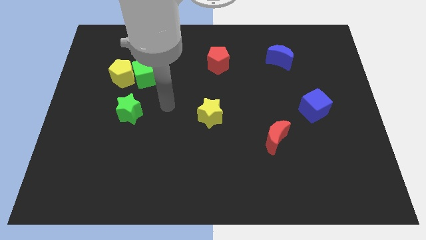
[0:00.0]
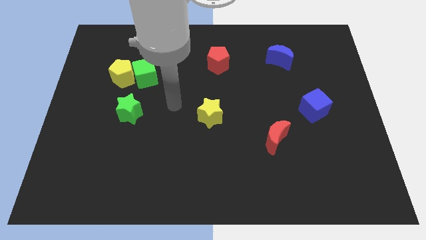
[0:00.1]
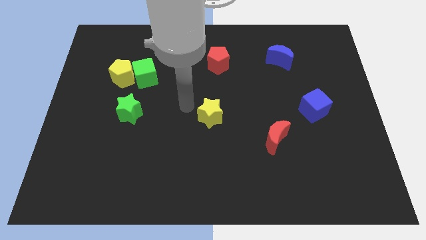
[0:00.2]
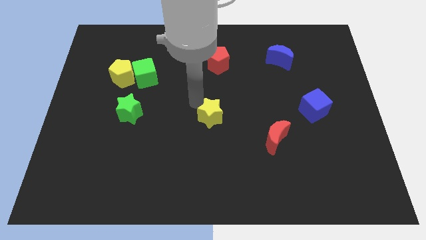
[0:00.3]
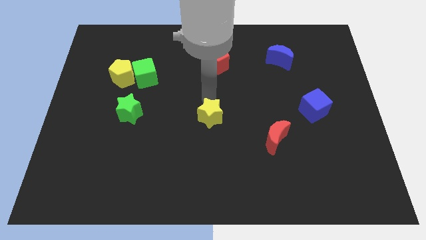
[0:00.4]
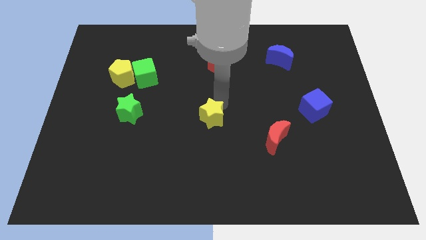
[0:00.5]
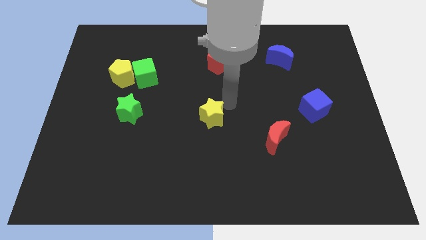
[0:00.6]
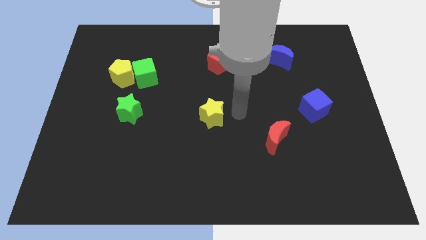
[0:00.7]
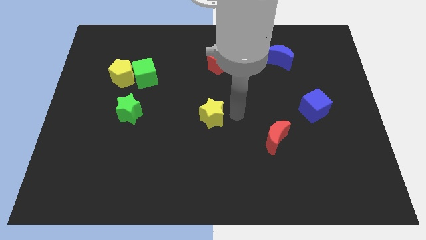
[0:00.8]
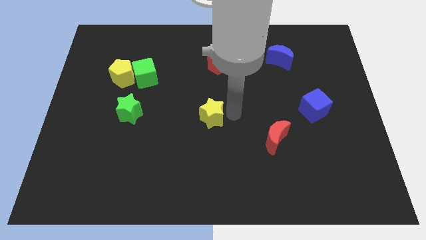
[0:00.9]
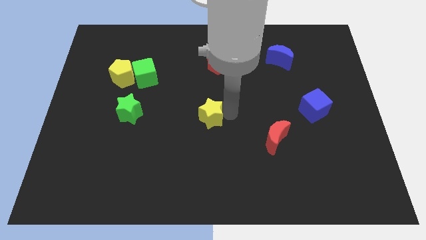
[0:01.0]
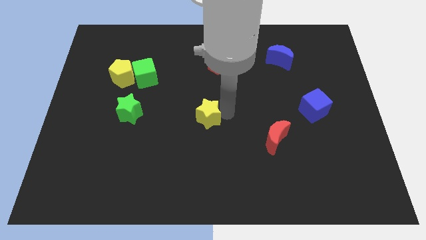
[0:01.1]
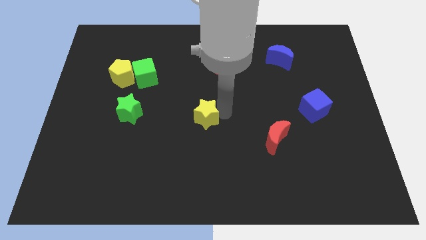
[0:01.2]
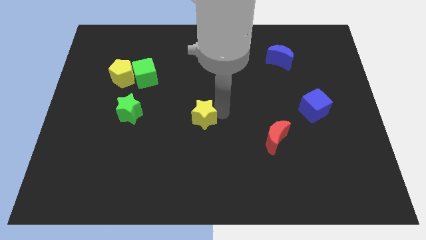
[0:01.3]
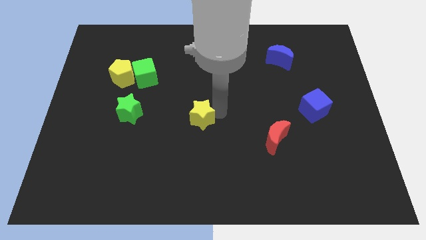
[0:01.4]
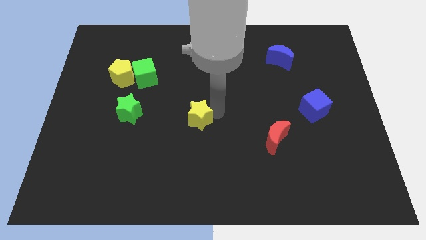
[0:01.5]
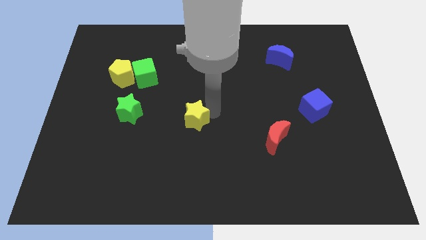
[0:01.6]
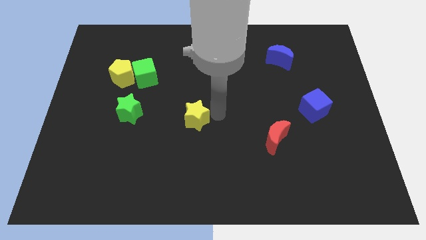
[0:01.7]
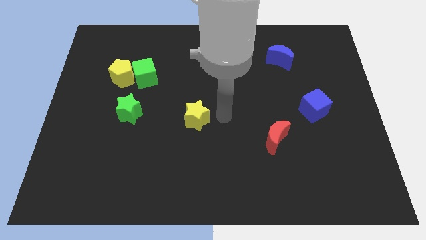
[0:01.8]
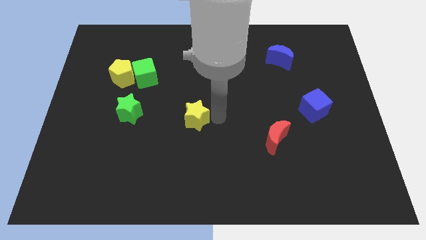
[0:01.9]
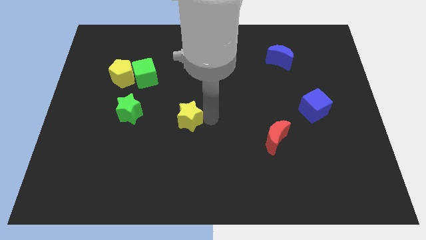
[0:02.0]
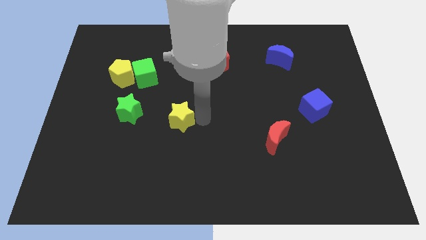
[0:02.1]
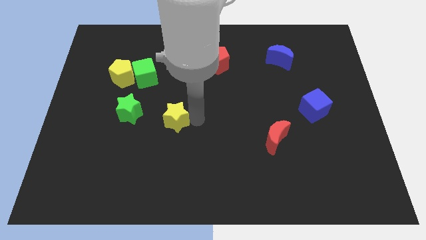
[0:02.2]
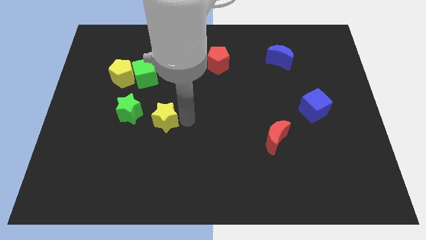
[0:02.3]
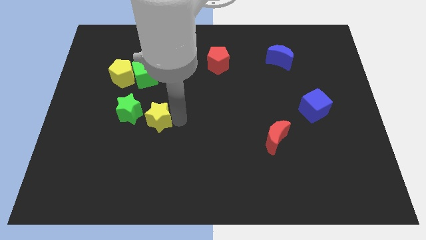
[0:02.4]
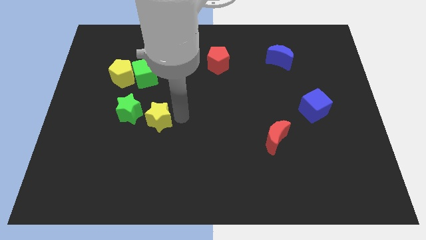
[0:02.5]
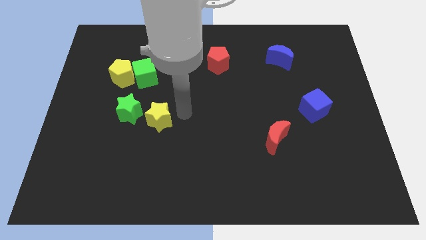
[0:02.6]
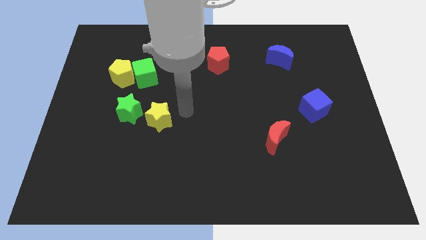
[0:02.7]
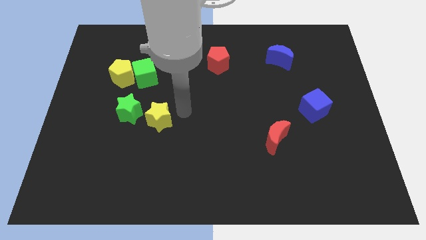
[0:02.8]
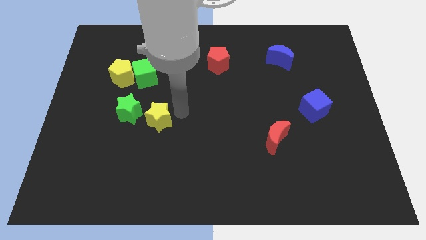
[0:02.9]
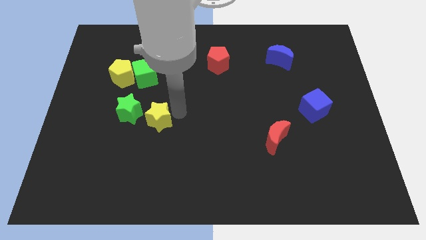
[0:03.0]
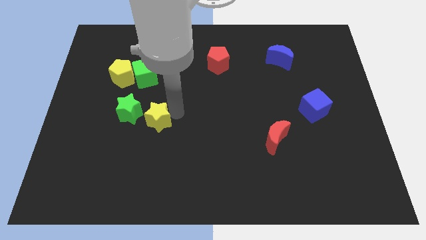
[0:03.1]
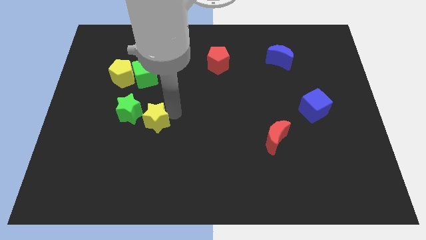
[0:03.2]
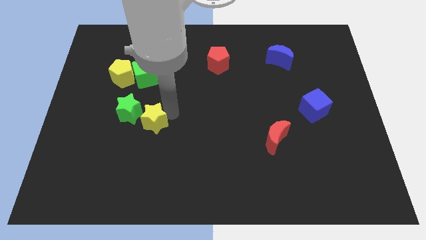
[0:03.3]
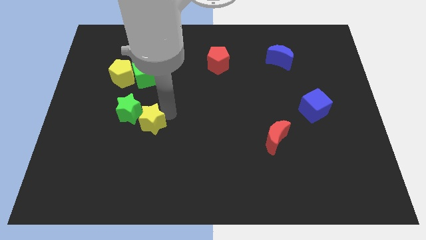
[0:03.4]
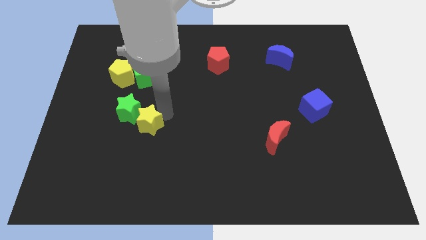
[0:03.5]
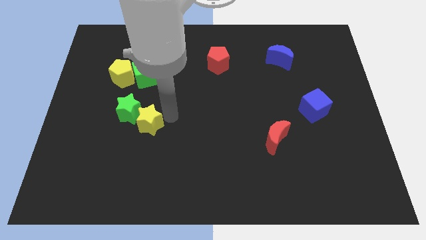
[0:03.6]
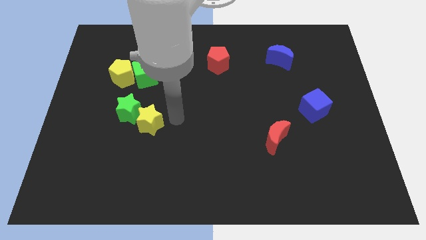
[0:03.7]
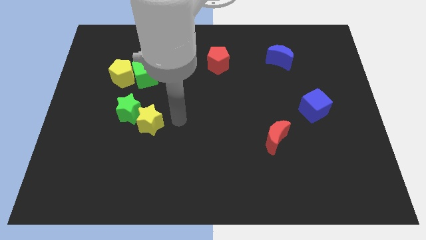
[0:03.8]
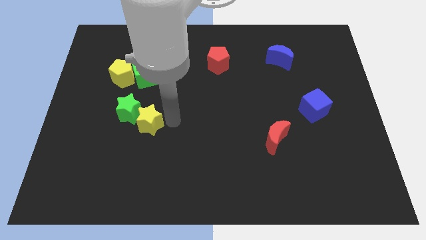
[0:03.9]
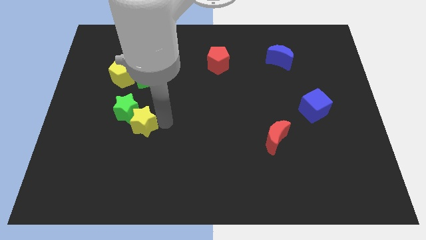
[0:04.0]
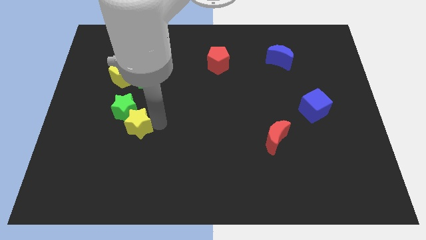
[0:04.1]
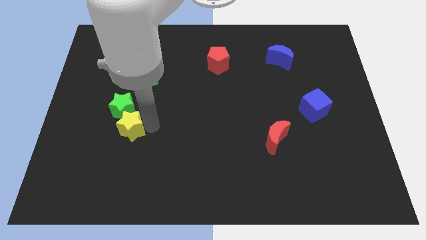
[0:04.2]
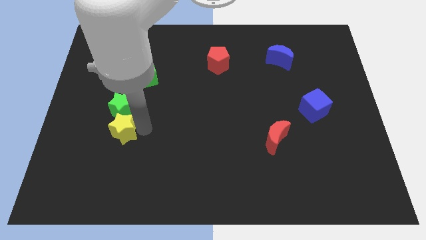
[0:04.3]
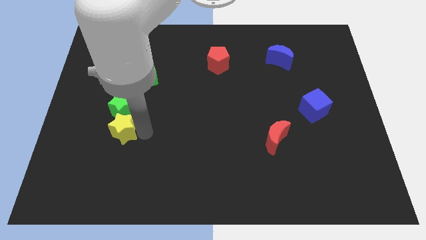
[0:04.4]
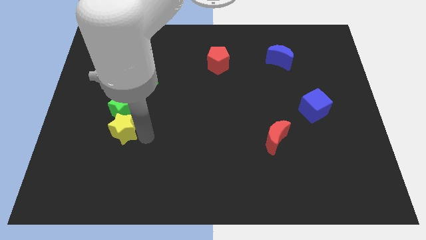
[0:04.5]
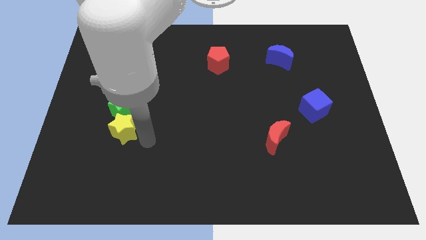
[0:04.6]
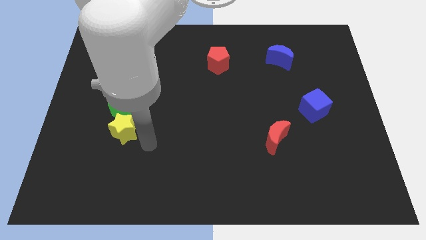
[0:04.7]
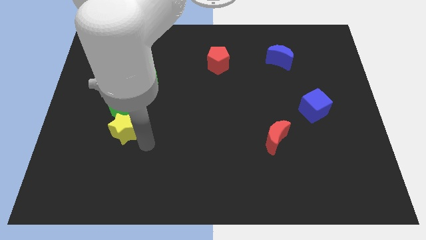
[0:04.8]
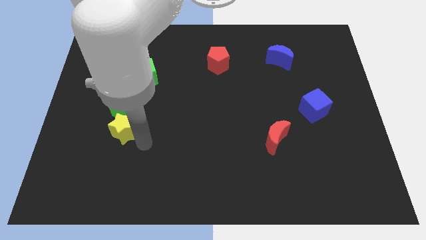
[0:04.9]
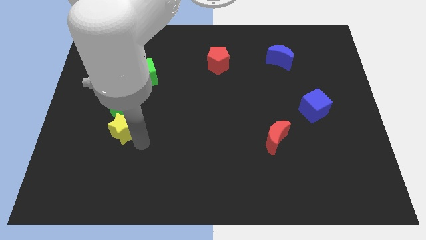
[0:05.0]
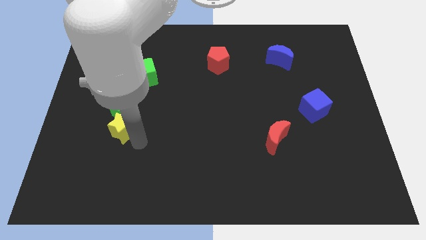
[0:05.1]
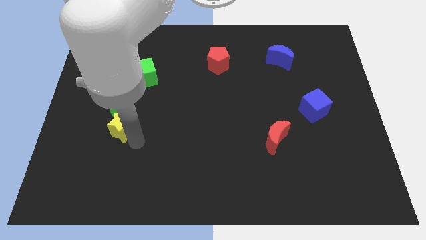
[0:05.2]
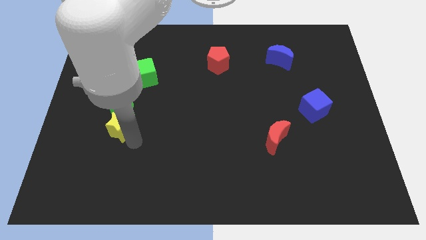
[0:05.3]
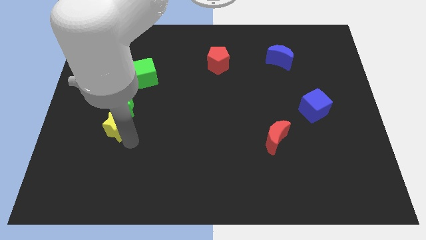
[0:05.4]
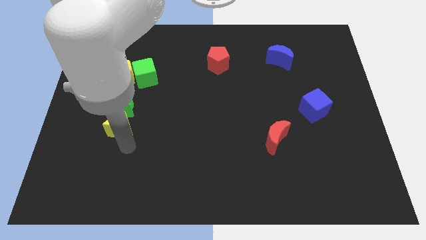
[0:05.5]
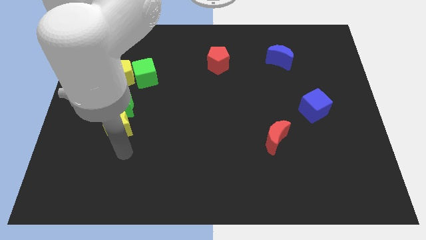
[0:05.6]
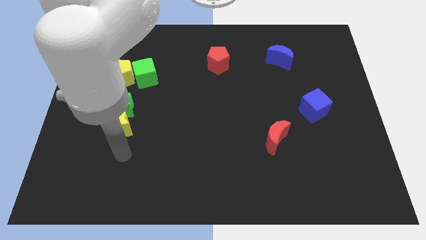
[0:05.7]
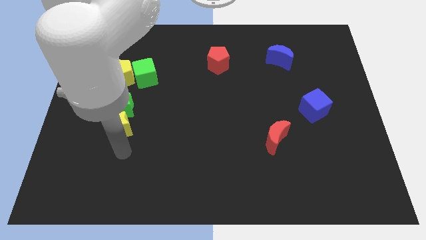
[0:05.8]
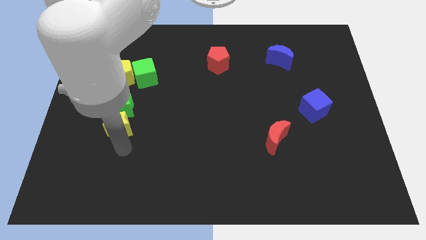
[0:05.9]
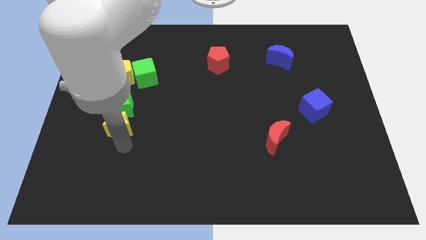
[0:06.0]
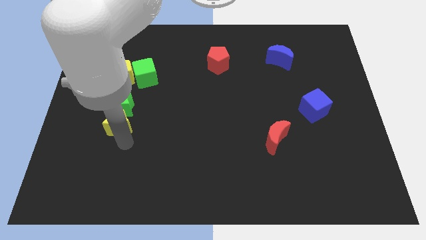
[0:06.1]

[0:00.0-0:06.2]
put the yellow star to the bottom side of the yellow pentagon

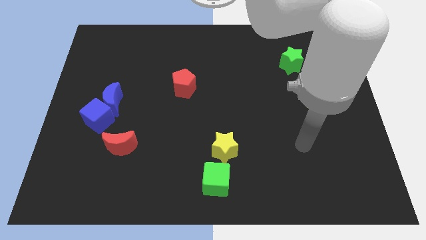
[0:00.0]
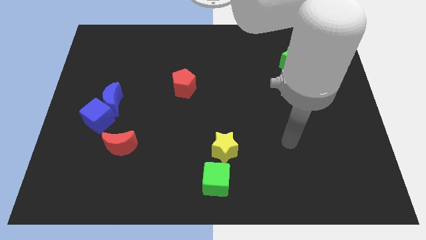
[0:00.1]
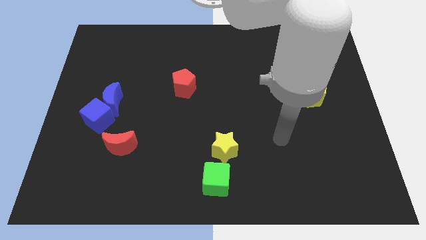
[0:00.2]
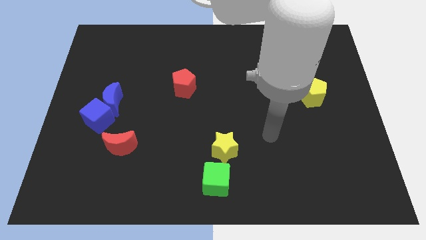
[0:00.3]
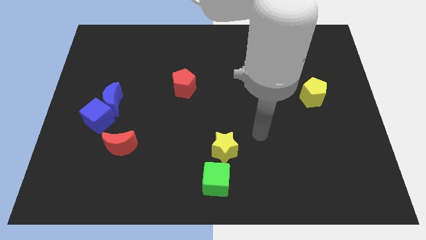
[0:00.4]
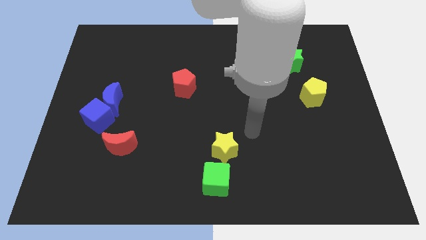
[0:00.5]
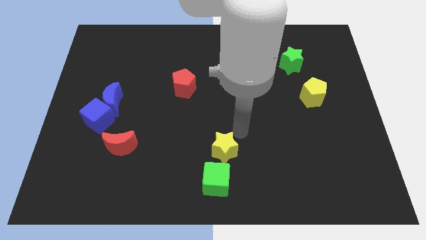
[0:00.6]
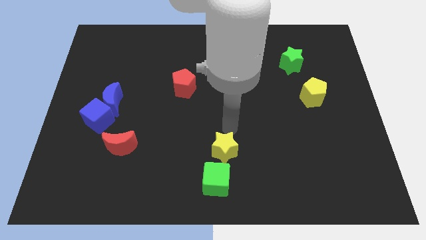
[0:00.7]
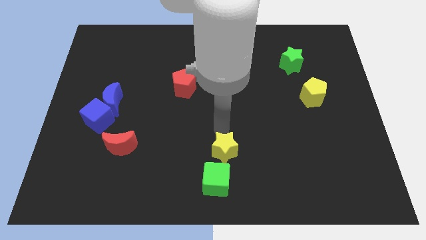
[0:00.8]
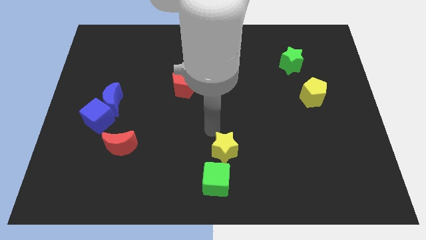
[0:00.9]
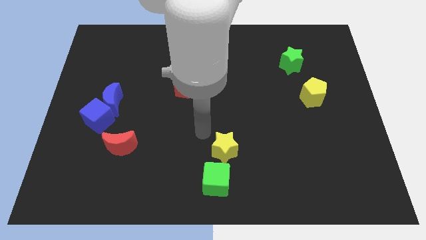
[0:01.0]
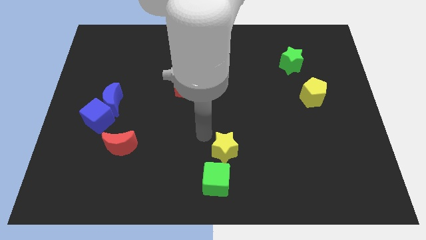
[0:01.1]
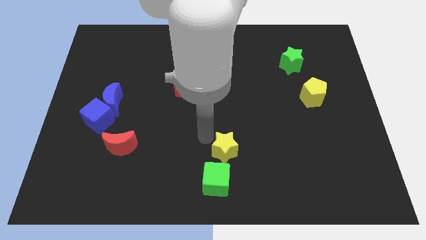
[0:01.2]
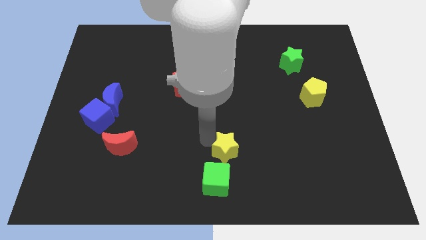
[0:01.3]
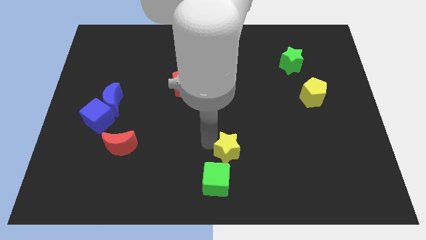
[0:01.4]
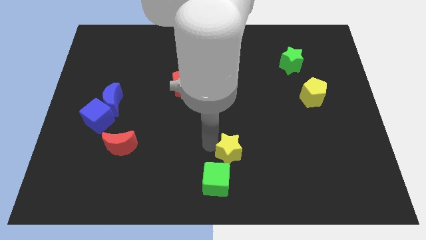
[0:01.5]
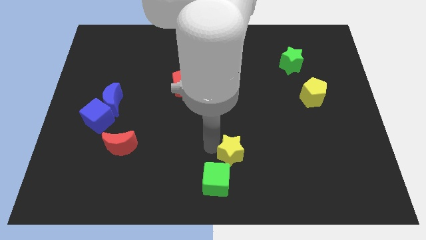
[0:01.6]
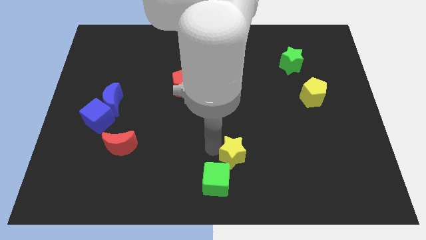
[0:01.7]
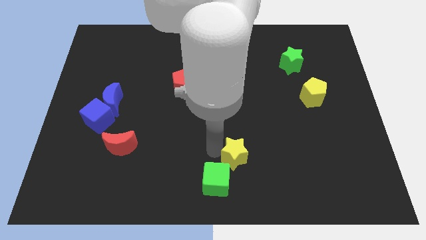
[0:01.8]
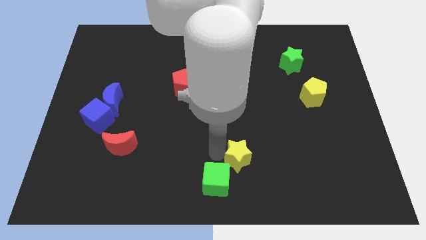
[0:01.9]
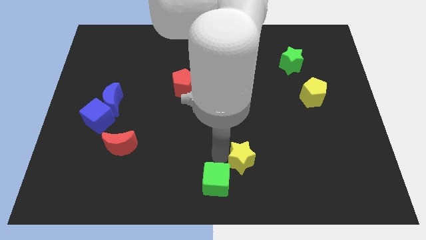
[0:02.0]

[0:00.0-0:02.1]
put the yellow star to the right side of the green cube

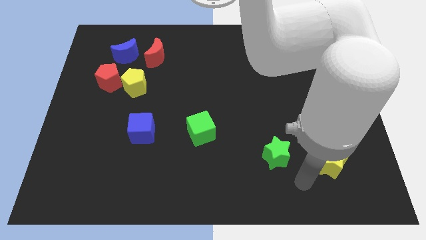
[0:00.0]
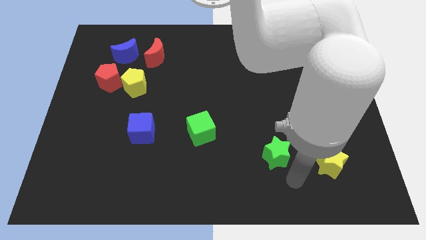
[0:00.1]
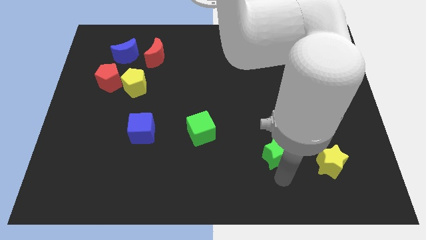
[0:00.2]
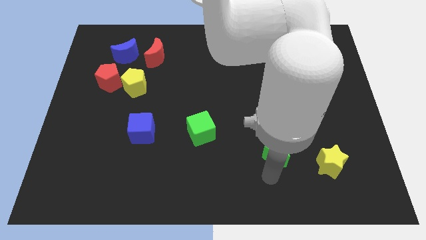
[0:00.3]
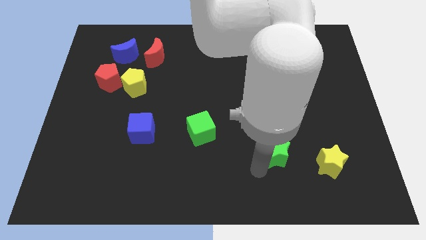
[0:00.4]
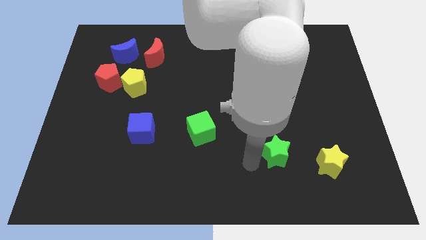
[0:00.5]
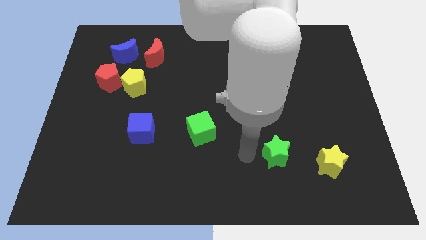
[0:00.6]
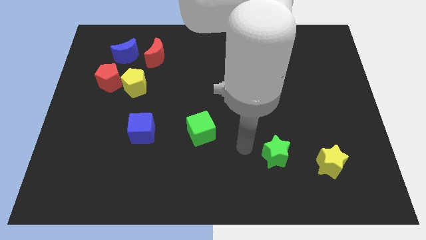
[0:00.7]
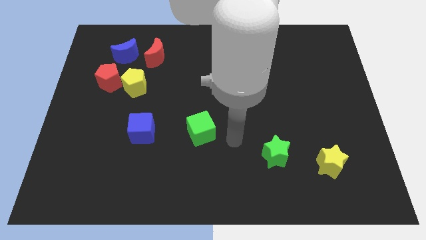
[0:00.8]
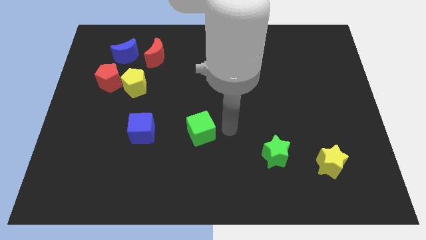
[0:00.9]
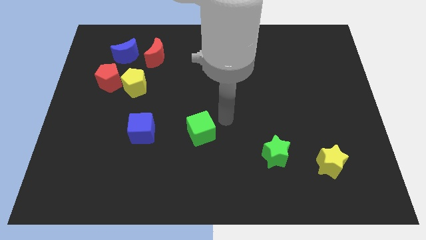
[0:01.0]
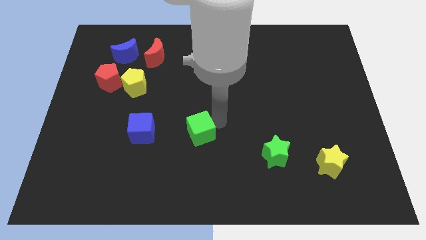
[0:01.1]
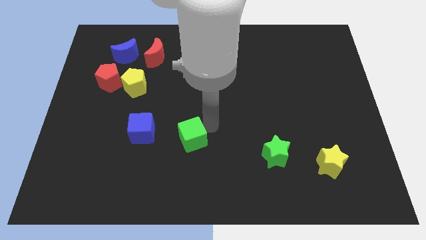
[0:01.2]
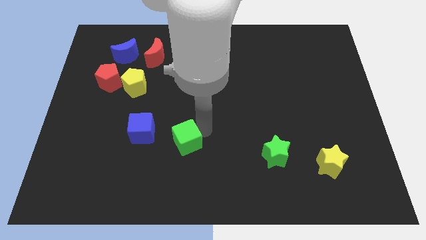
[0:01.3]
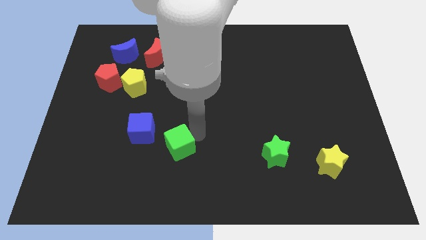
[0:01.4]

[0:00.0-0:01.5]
move the green cube to the bottom right side of the blue cube
